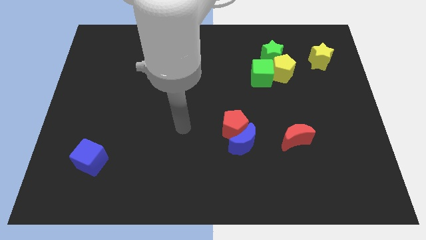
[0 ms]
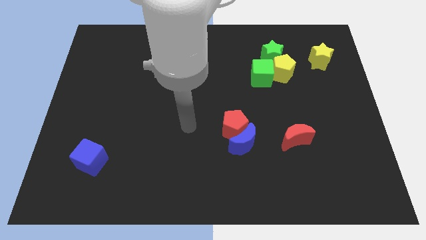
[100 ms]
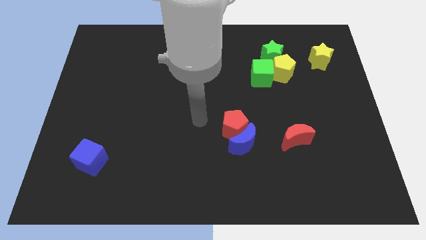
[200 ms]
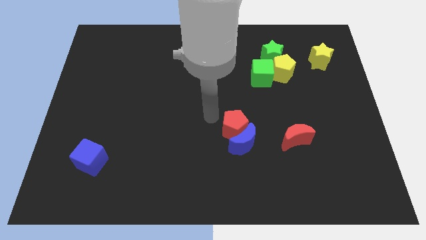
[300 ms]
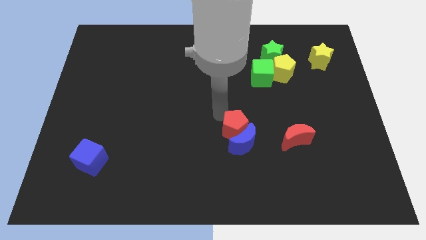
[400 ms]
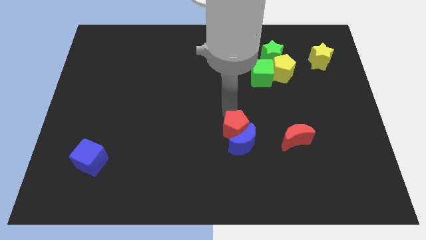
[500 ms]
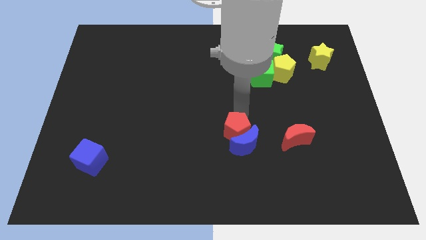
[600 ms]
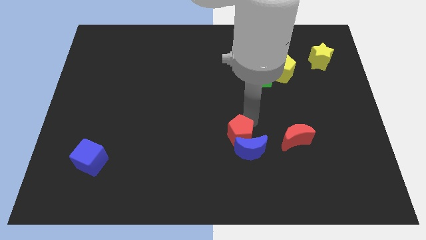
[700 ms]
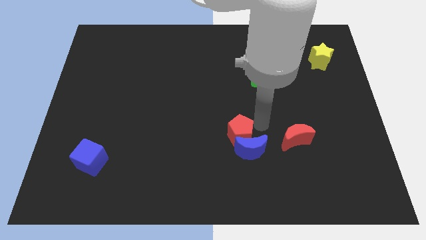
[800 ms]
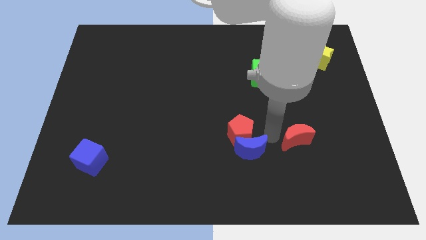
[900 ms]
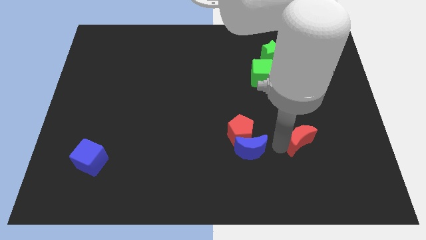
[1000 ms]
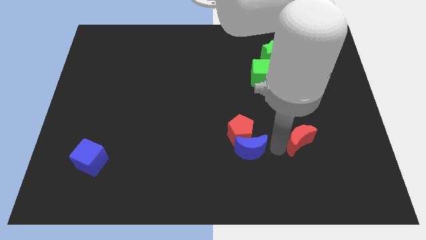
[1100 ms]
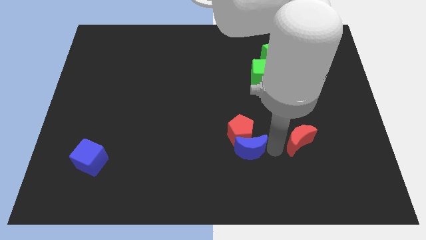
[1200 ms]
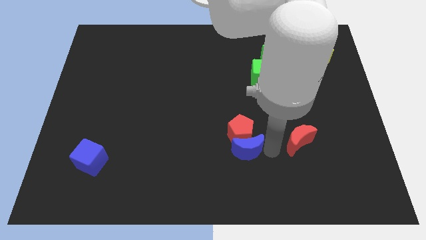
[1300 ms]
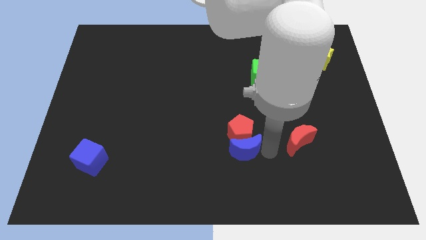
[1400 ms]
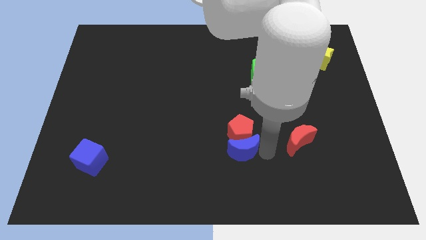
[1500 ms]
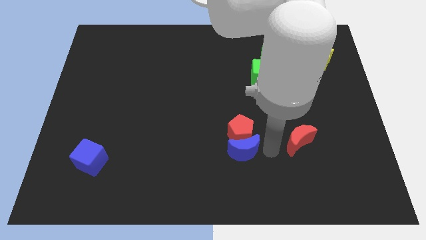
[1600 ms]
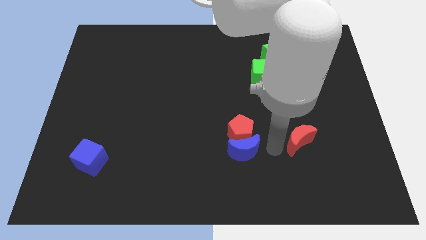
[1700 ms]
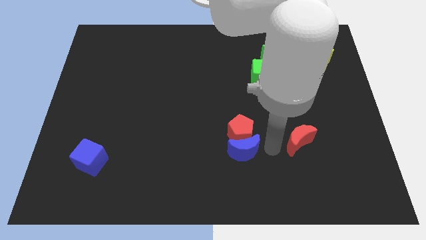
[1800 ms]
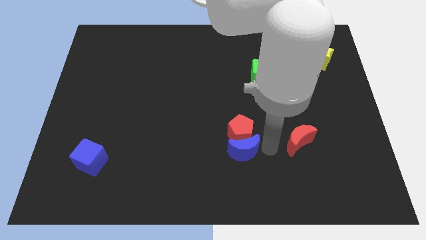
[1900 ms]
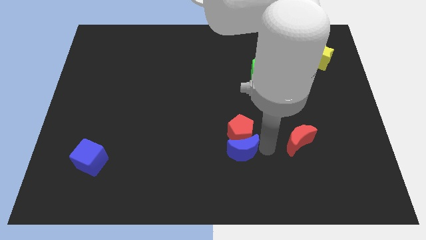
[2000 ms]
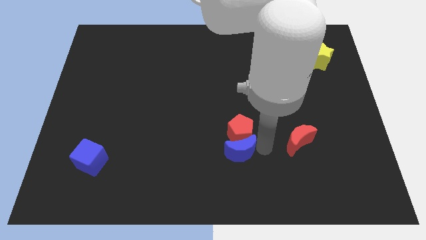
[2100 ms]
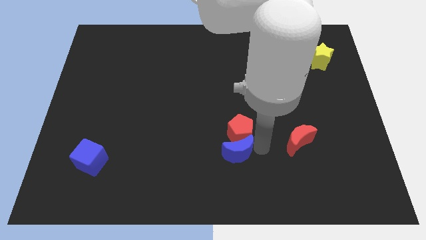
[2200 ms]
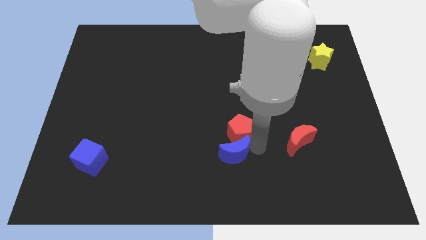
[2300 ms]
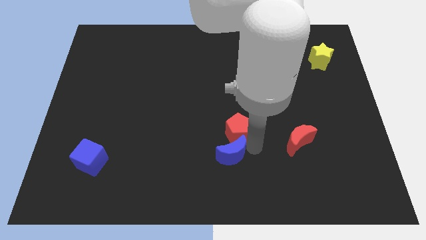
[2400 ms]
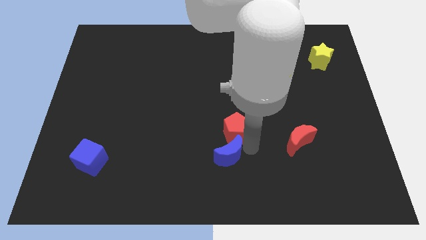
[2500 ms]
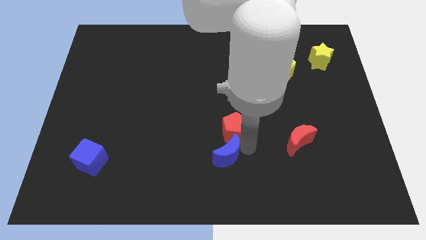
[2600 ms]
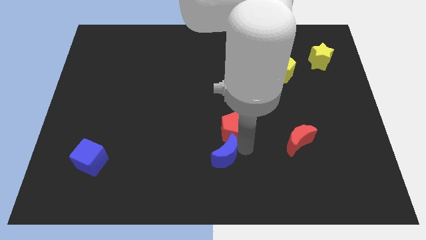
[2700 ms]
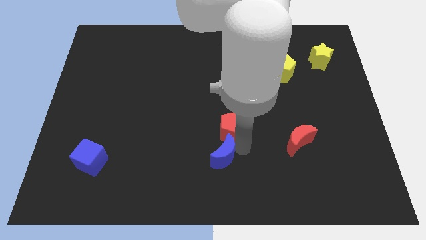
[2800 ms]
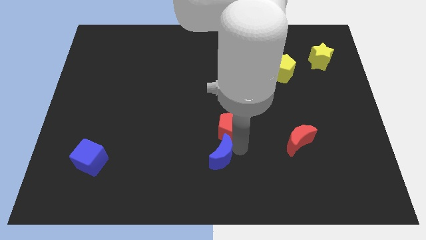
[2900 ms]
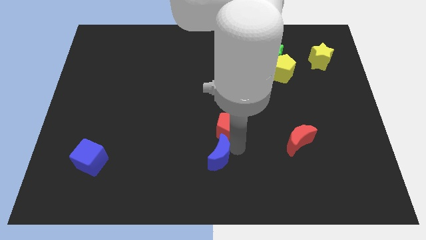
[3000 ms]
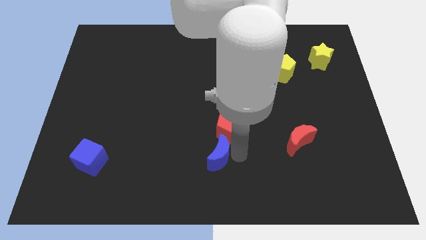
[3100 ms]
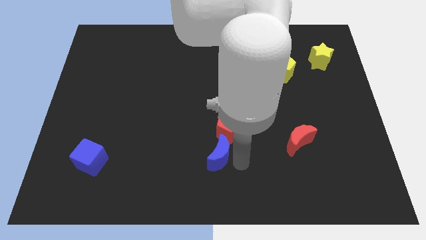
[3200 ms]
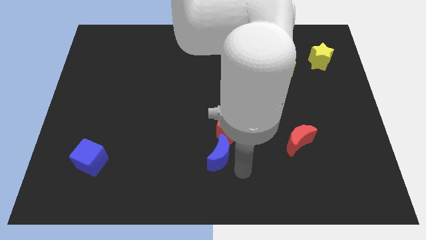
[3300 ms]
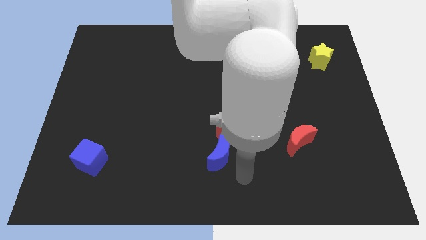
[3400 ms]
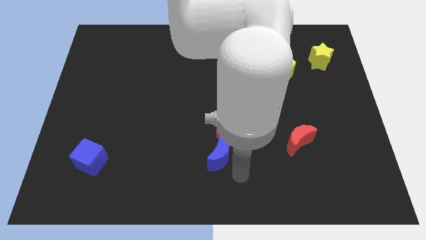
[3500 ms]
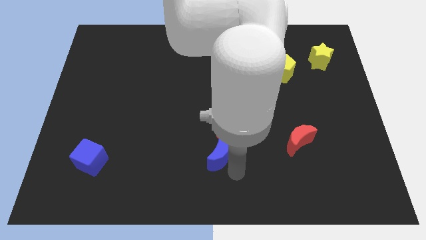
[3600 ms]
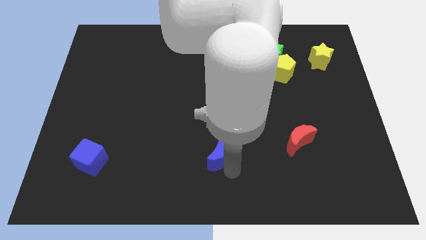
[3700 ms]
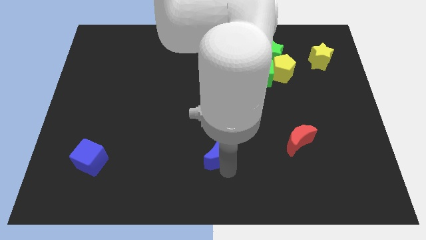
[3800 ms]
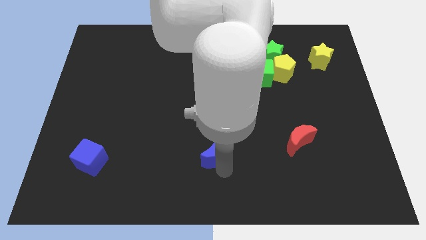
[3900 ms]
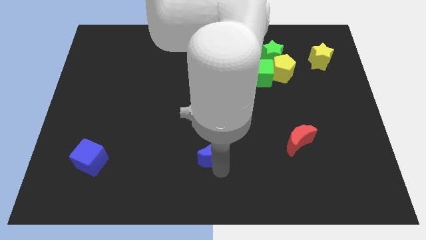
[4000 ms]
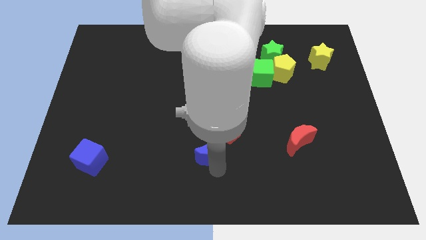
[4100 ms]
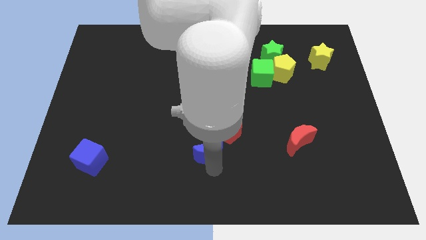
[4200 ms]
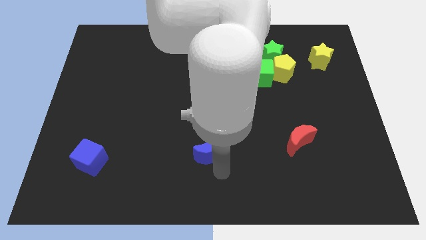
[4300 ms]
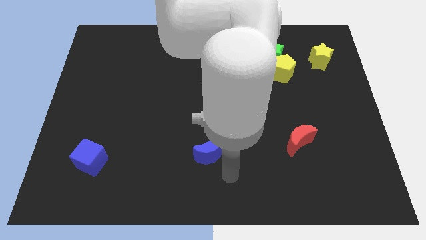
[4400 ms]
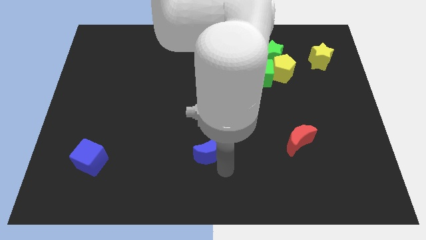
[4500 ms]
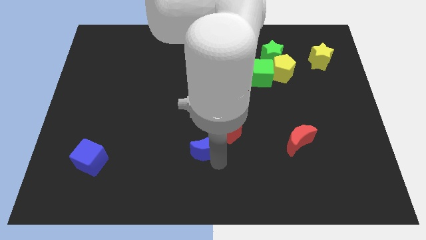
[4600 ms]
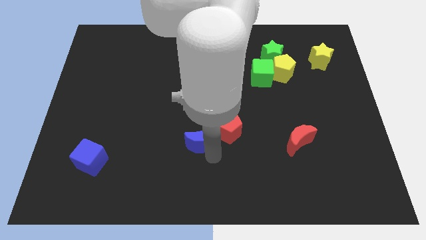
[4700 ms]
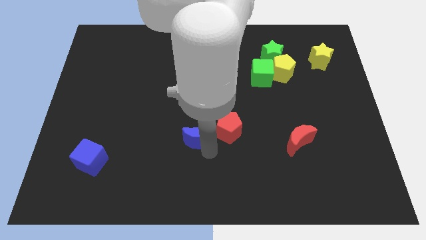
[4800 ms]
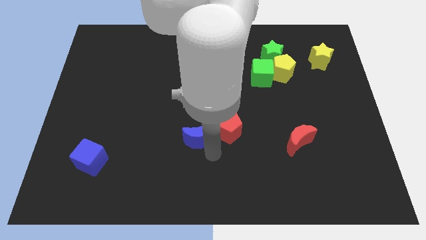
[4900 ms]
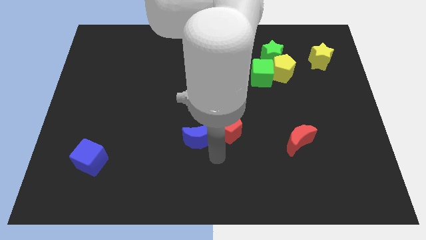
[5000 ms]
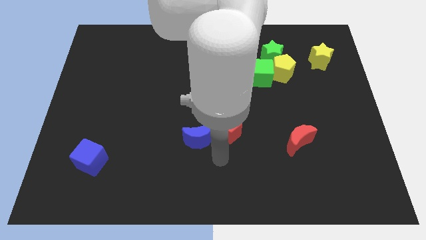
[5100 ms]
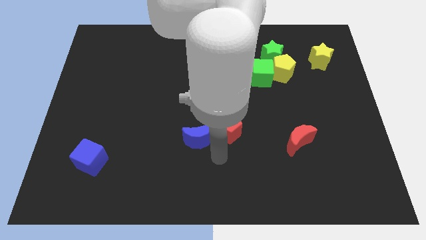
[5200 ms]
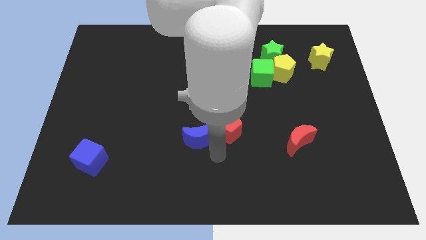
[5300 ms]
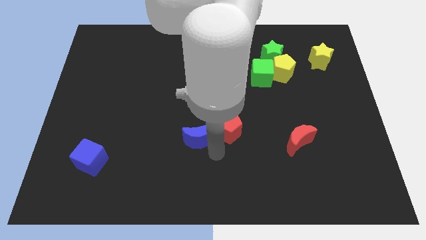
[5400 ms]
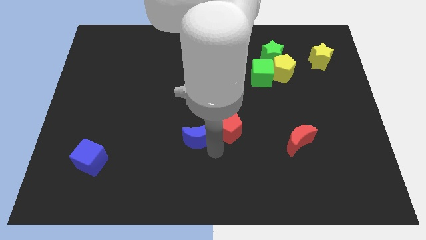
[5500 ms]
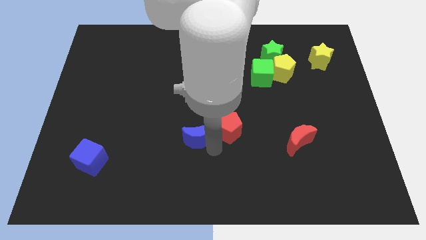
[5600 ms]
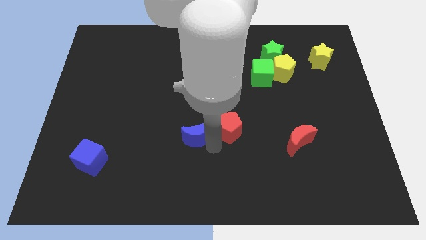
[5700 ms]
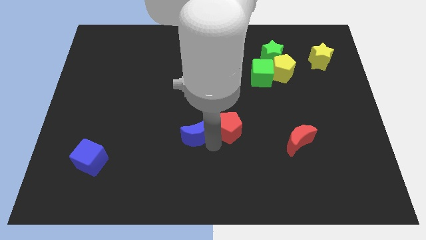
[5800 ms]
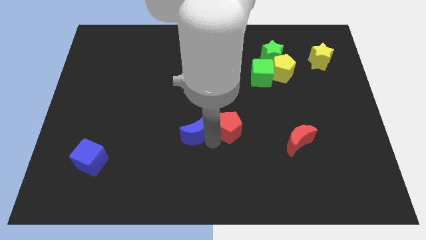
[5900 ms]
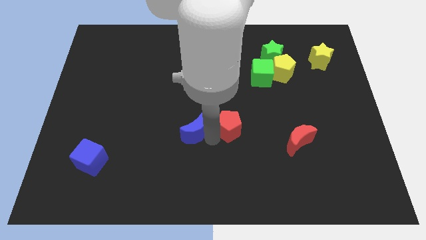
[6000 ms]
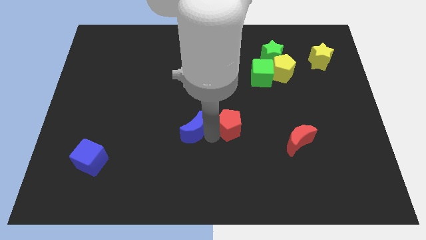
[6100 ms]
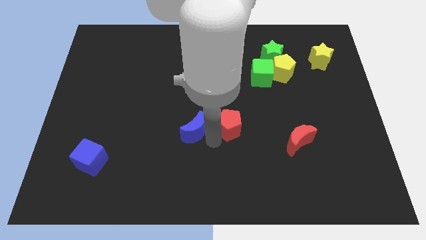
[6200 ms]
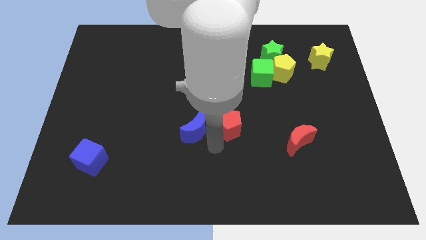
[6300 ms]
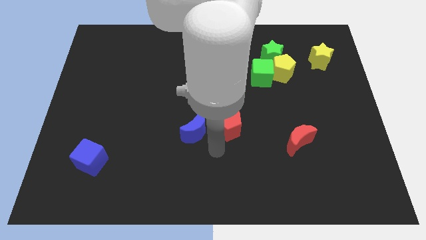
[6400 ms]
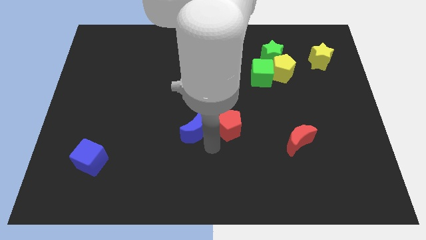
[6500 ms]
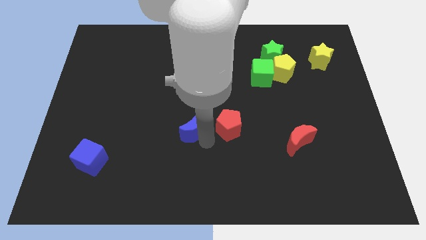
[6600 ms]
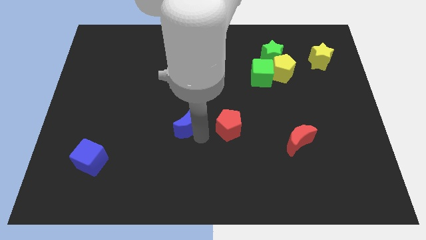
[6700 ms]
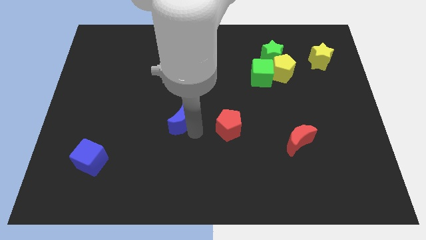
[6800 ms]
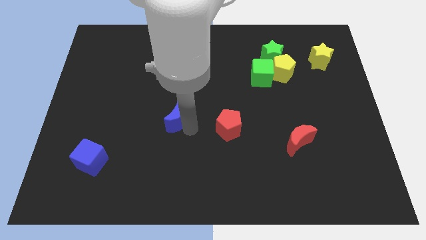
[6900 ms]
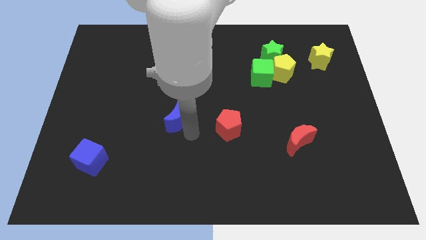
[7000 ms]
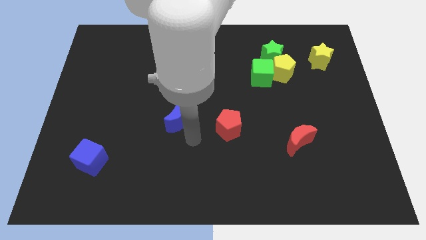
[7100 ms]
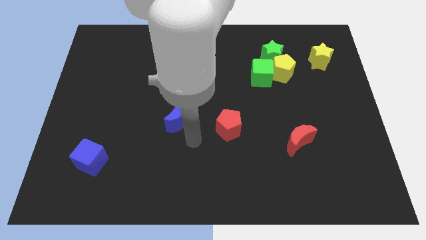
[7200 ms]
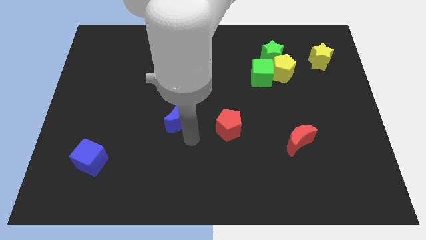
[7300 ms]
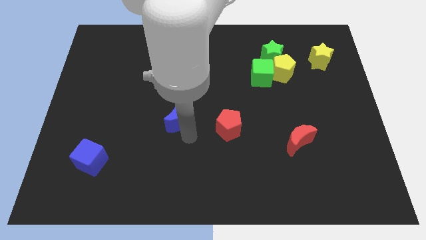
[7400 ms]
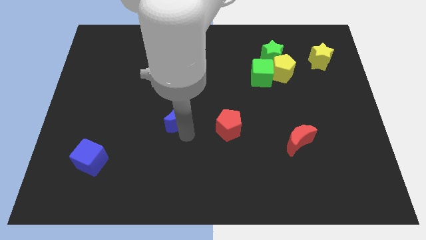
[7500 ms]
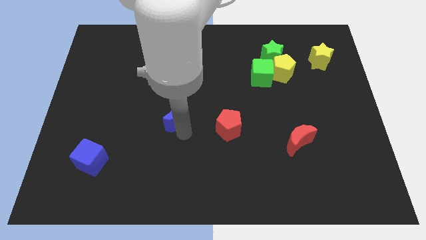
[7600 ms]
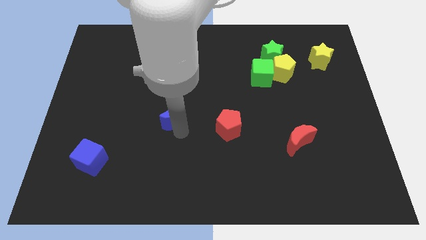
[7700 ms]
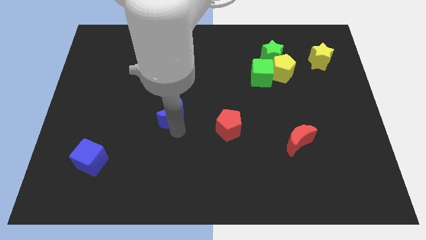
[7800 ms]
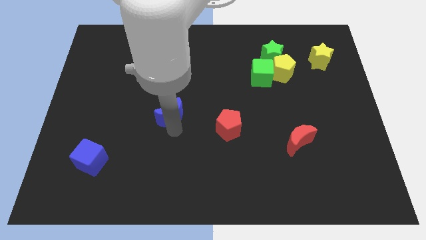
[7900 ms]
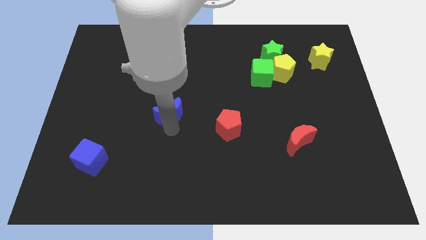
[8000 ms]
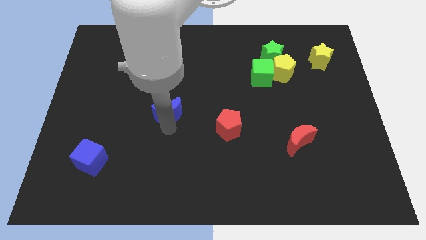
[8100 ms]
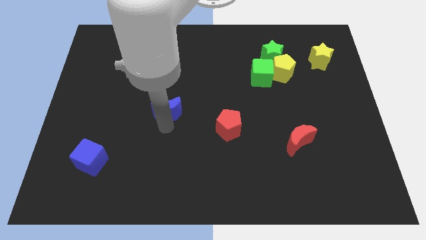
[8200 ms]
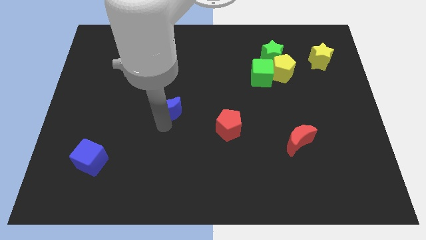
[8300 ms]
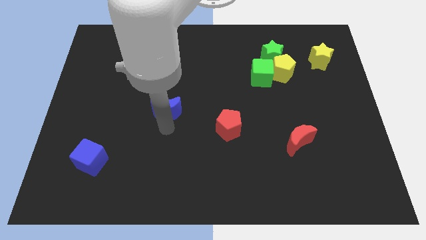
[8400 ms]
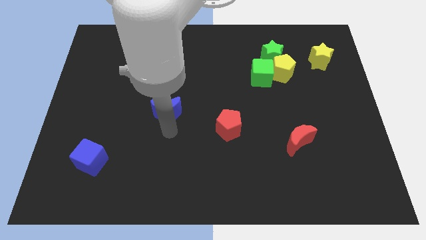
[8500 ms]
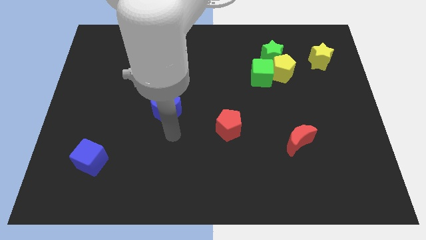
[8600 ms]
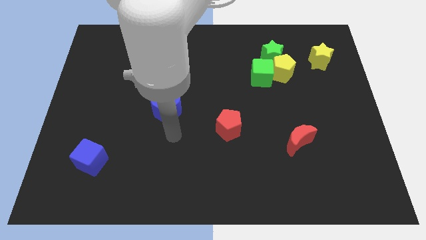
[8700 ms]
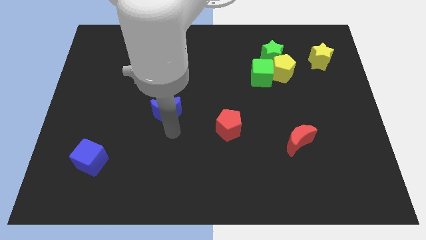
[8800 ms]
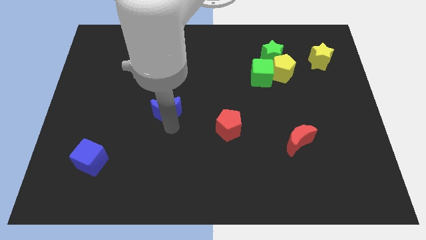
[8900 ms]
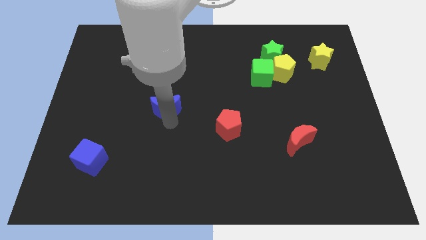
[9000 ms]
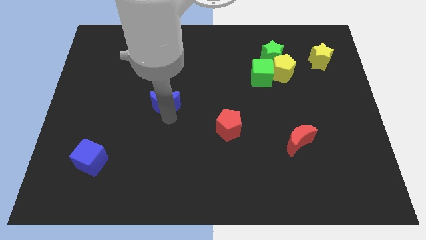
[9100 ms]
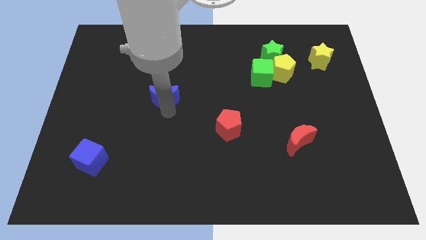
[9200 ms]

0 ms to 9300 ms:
move the blue moon diagonally upwards and left
